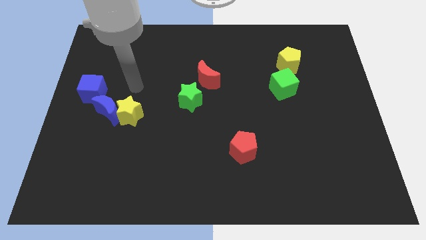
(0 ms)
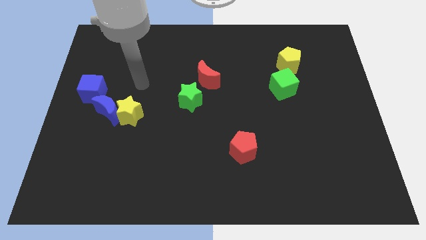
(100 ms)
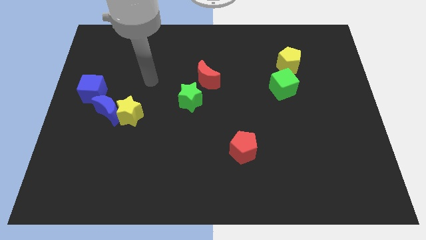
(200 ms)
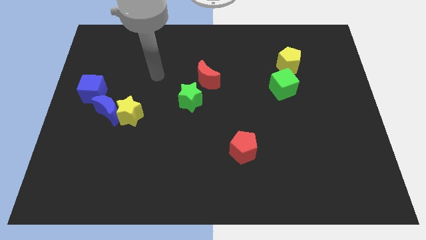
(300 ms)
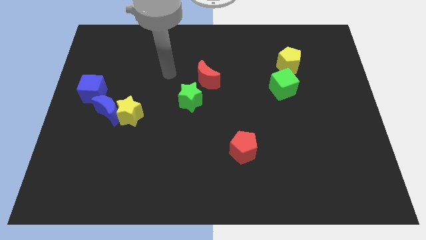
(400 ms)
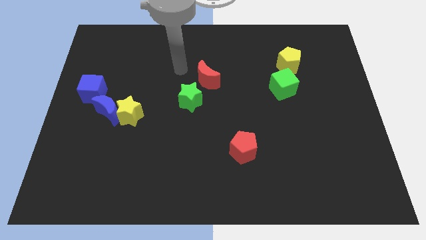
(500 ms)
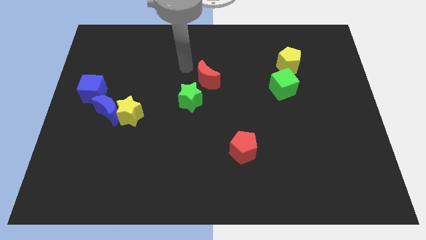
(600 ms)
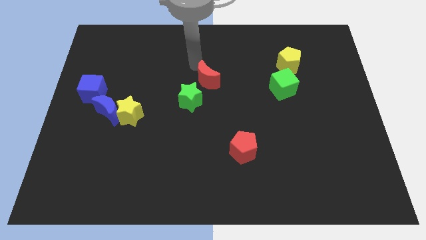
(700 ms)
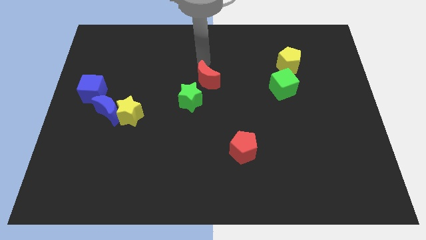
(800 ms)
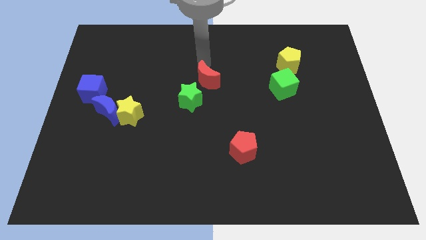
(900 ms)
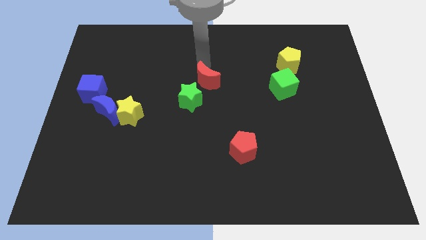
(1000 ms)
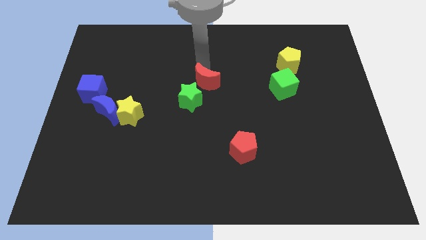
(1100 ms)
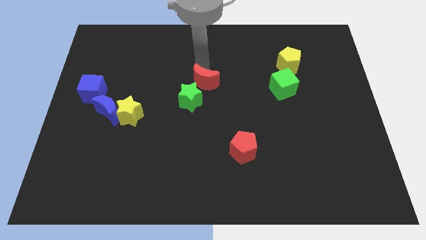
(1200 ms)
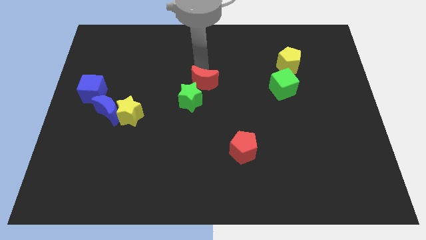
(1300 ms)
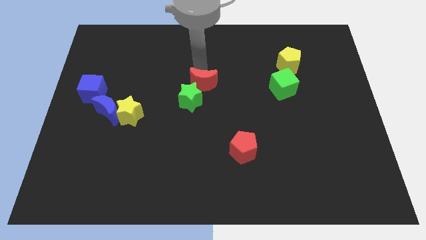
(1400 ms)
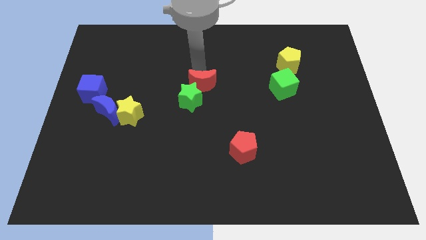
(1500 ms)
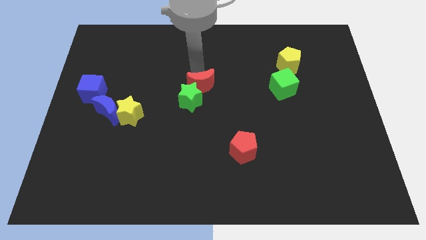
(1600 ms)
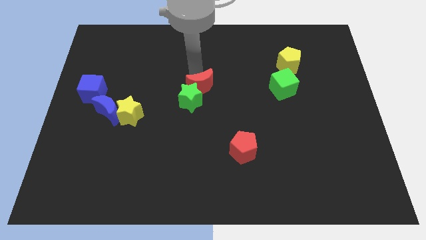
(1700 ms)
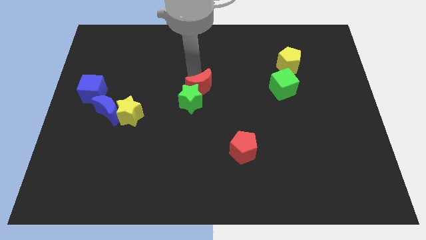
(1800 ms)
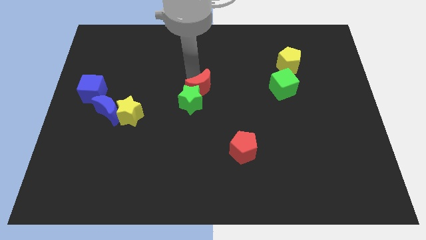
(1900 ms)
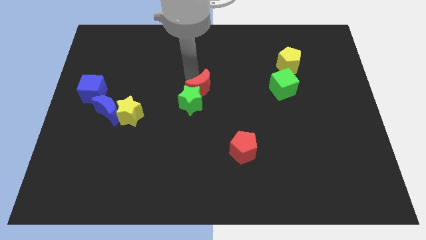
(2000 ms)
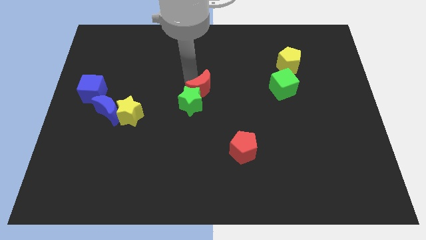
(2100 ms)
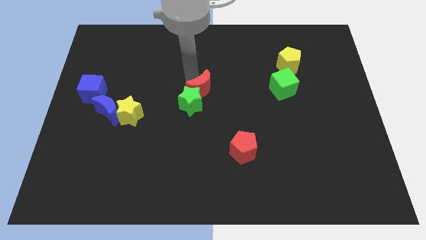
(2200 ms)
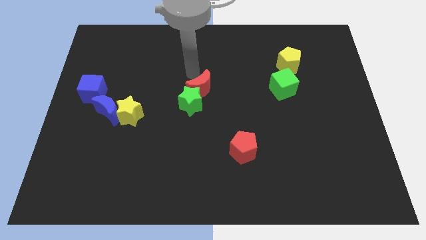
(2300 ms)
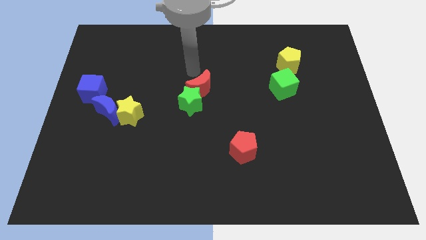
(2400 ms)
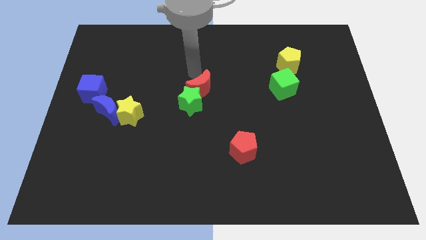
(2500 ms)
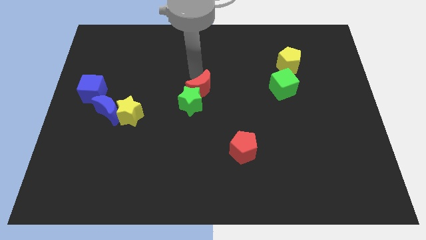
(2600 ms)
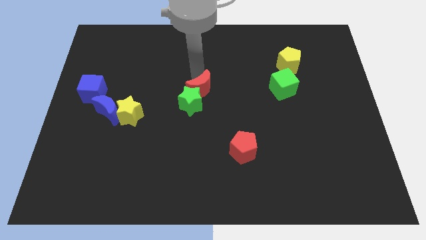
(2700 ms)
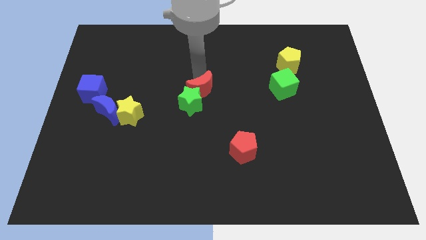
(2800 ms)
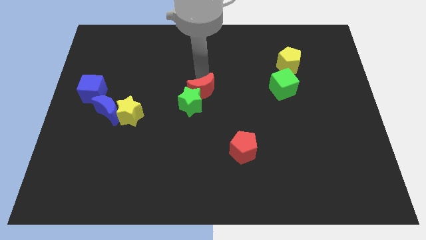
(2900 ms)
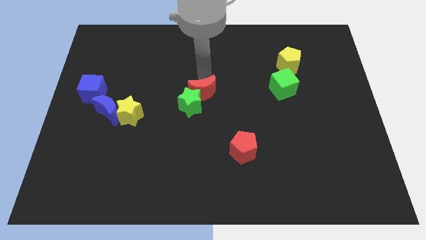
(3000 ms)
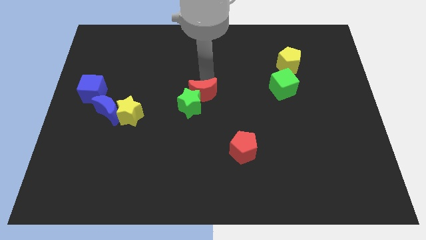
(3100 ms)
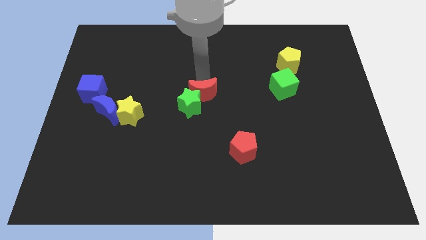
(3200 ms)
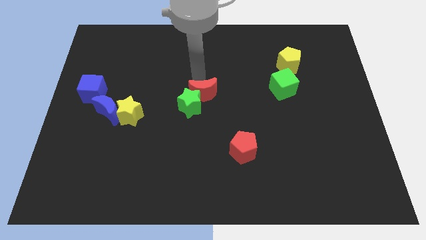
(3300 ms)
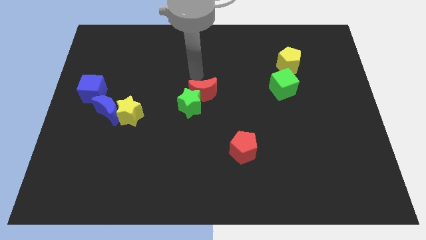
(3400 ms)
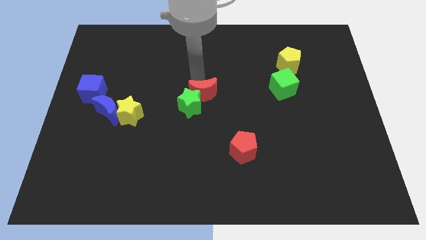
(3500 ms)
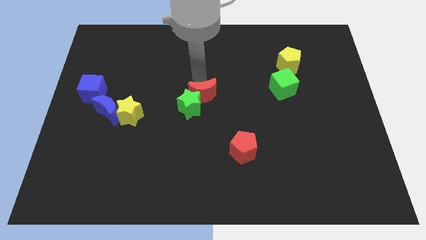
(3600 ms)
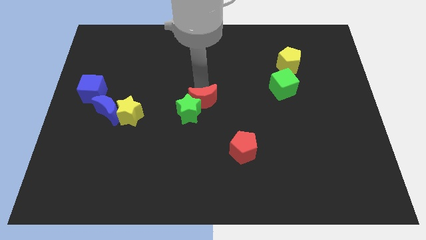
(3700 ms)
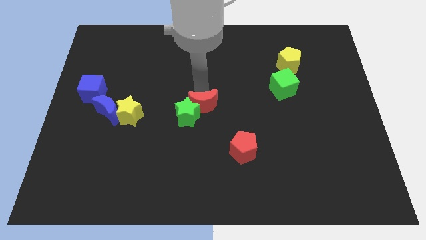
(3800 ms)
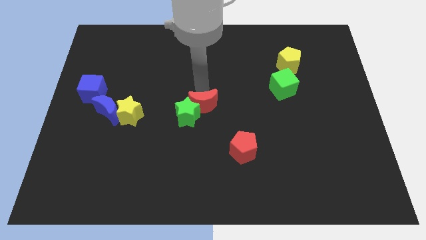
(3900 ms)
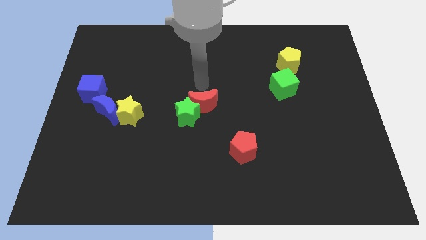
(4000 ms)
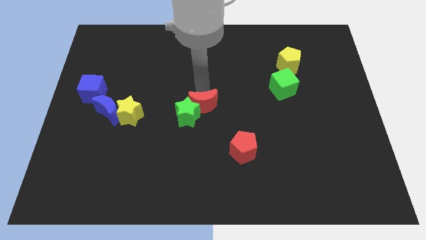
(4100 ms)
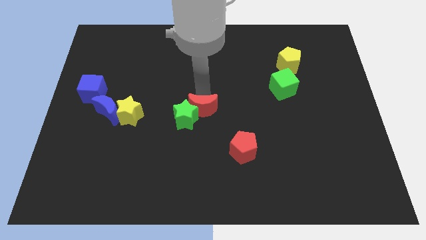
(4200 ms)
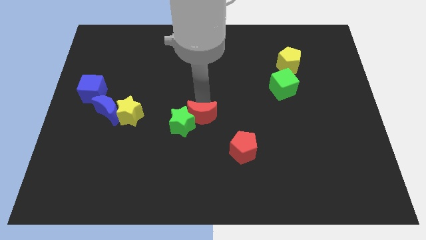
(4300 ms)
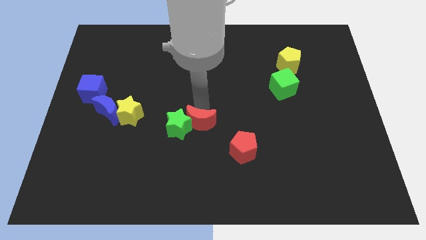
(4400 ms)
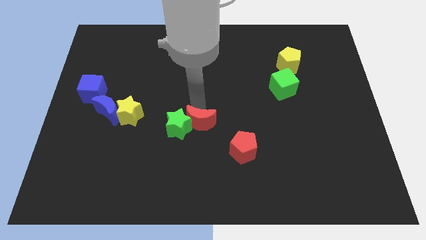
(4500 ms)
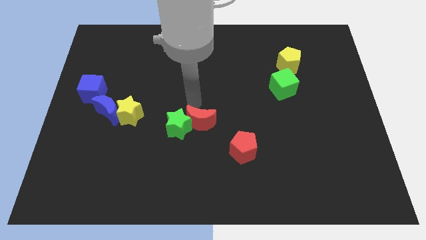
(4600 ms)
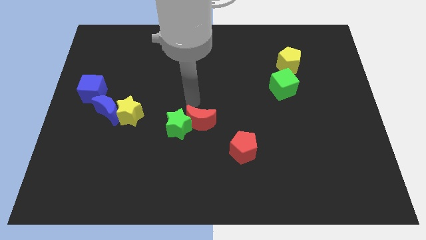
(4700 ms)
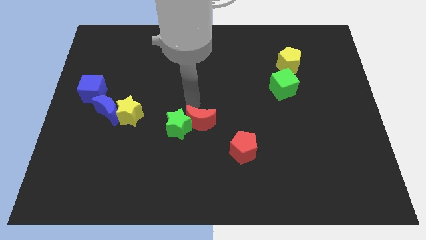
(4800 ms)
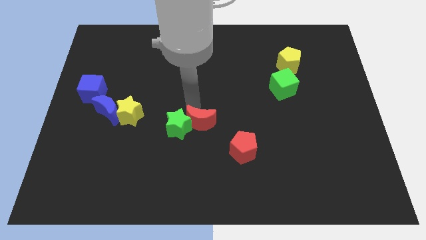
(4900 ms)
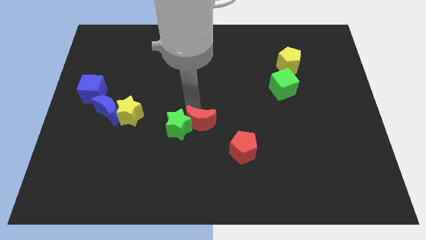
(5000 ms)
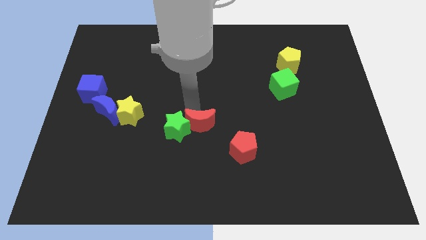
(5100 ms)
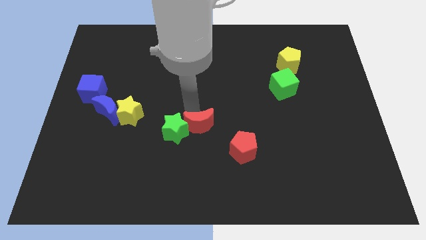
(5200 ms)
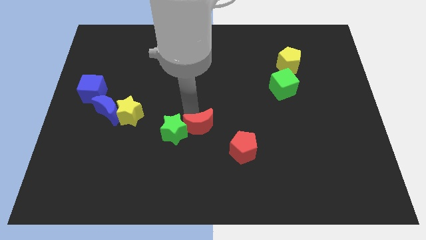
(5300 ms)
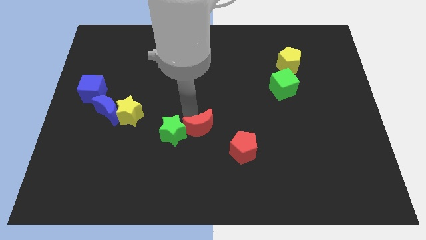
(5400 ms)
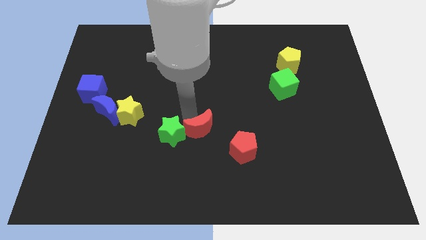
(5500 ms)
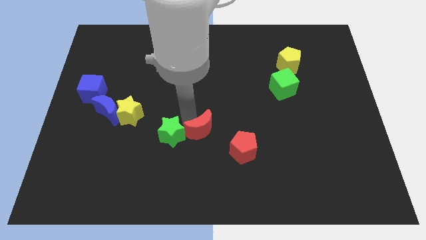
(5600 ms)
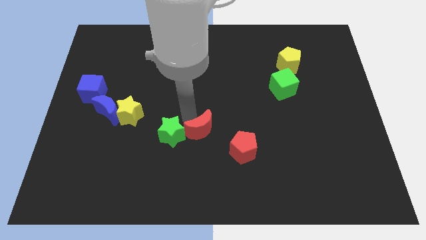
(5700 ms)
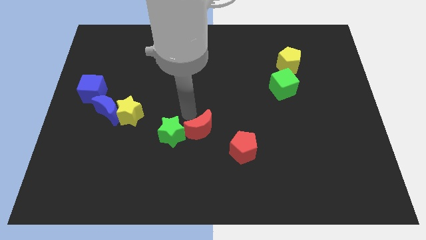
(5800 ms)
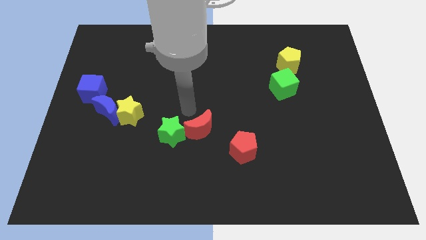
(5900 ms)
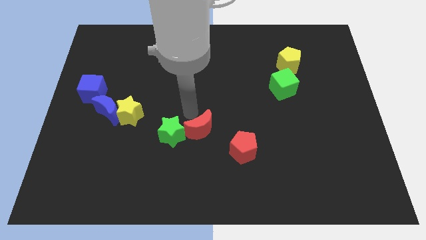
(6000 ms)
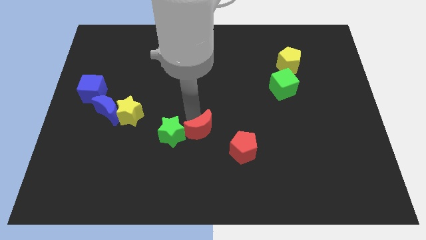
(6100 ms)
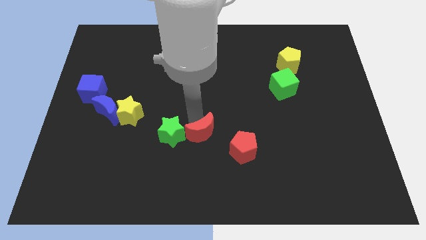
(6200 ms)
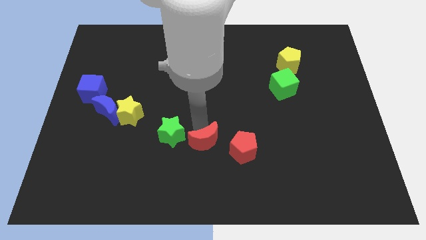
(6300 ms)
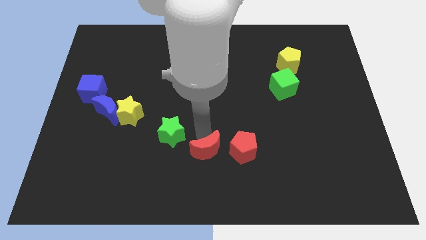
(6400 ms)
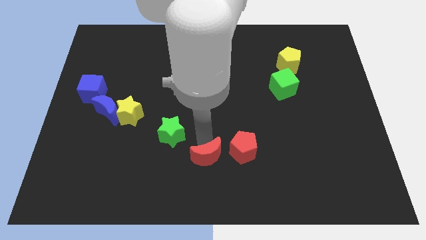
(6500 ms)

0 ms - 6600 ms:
push the red moon to the bottom left of the red pentagon

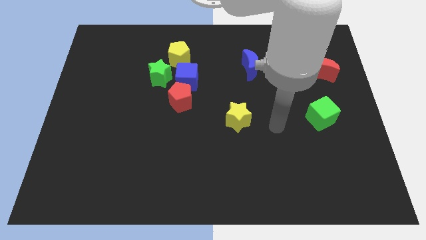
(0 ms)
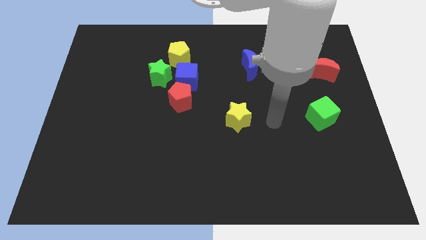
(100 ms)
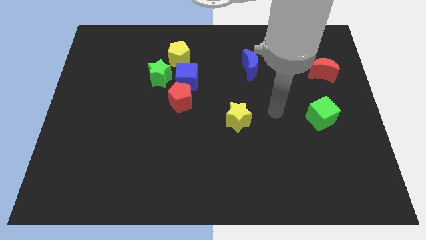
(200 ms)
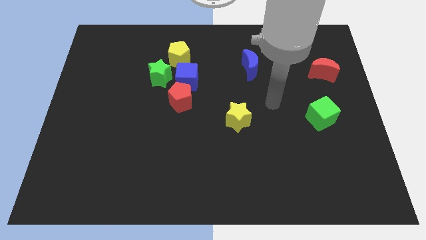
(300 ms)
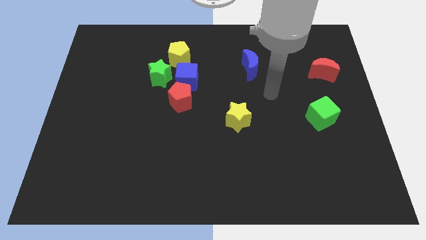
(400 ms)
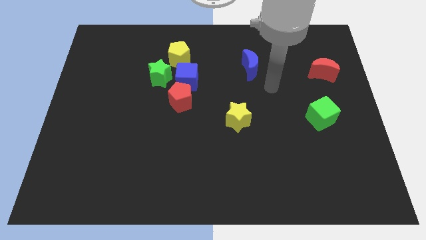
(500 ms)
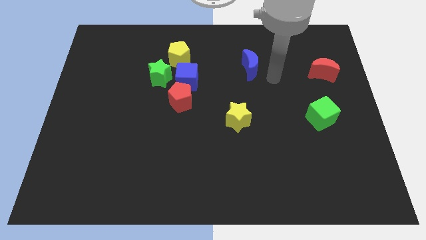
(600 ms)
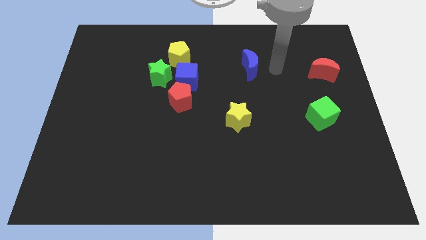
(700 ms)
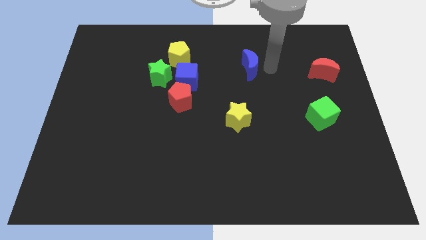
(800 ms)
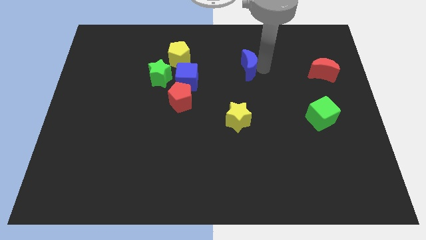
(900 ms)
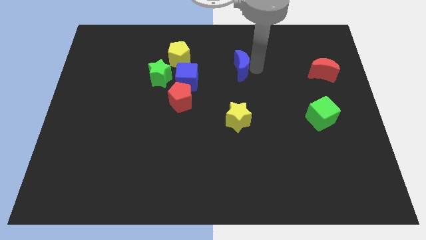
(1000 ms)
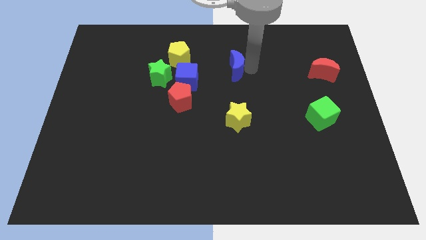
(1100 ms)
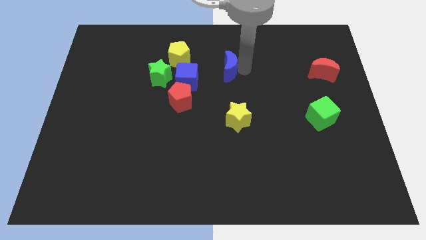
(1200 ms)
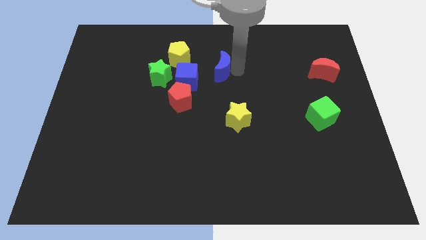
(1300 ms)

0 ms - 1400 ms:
slide the blue moon diagonally up and to the right of the blue cube
